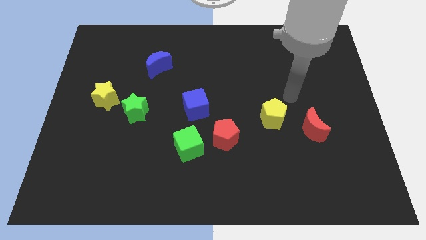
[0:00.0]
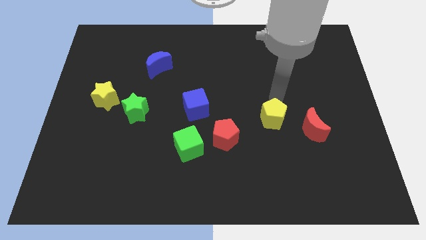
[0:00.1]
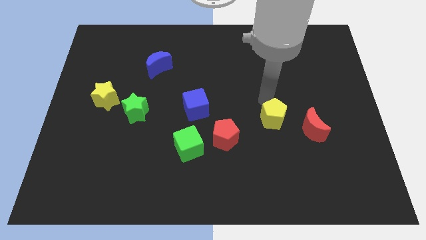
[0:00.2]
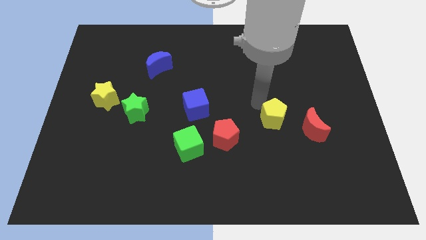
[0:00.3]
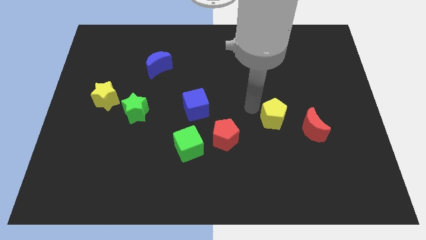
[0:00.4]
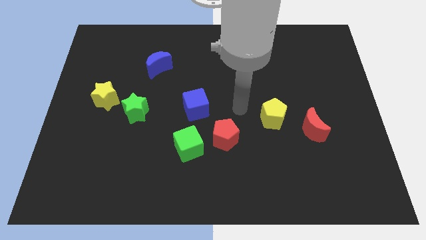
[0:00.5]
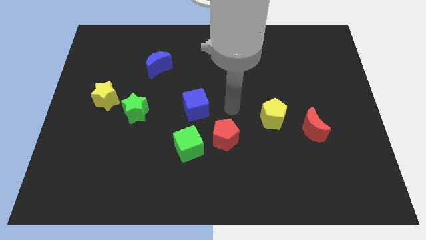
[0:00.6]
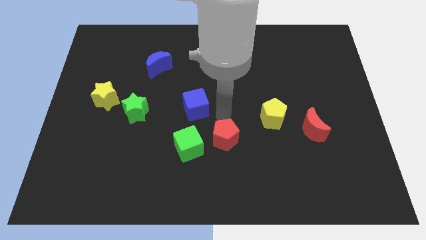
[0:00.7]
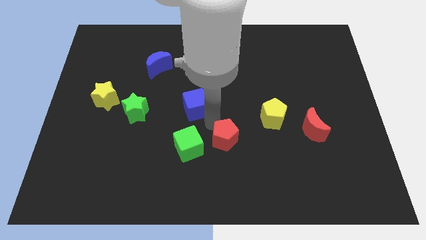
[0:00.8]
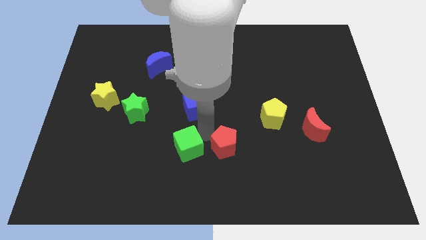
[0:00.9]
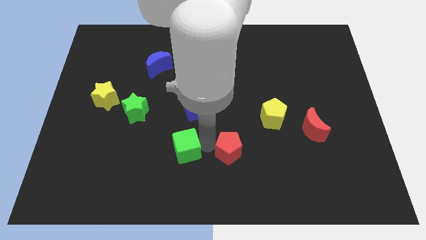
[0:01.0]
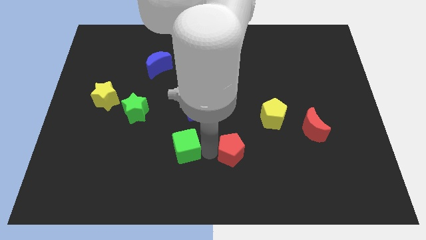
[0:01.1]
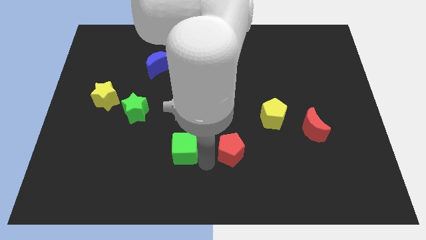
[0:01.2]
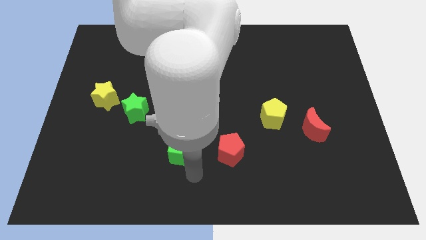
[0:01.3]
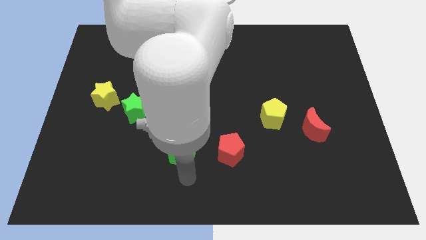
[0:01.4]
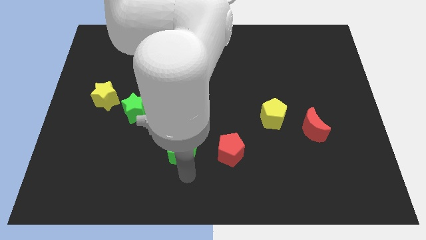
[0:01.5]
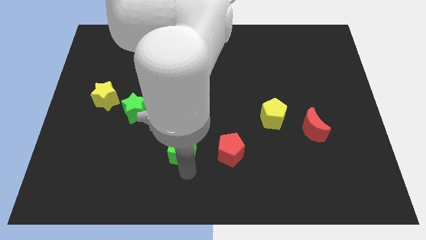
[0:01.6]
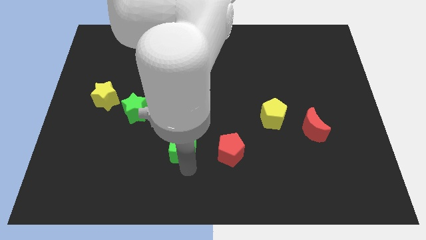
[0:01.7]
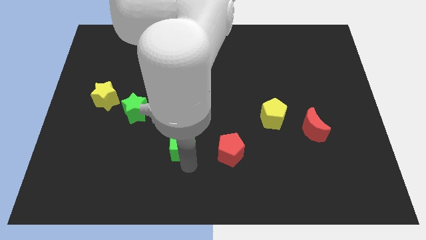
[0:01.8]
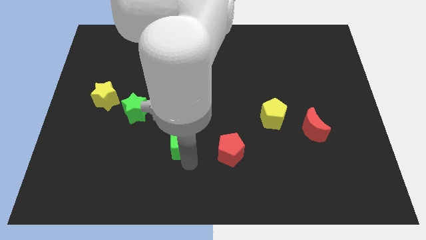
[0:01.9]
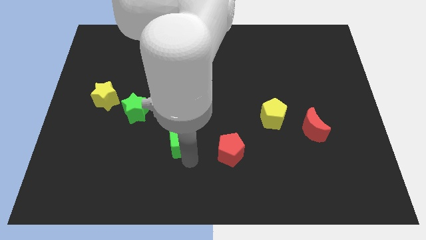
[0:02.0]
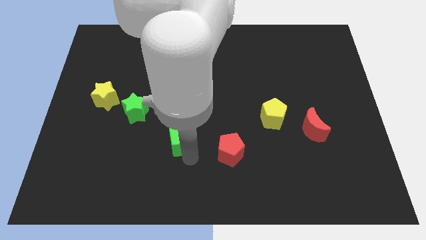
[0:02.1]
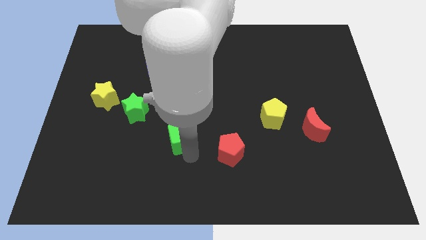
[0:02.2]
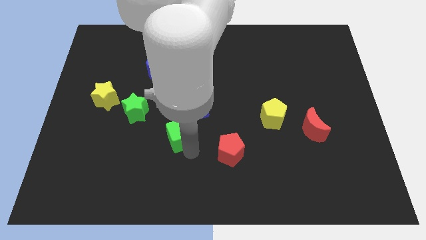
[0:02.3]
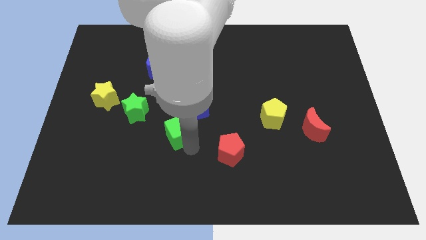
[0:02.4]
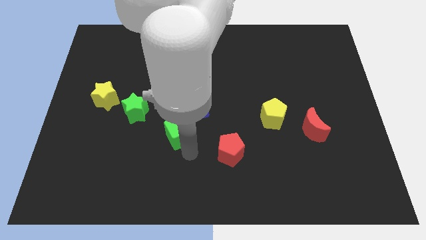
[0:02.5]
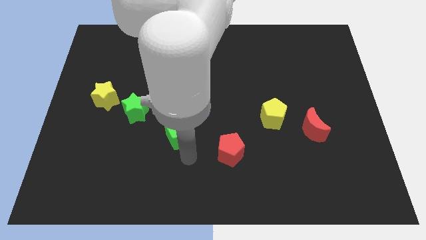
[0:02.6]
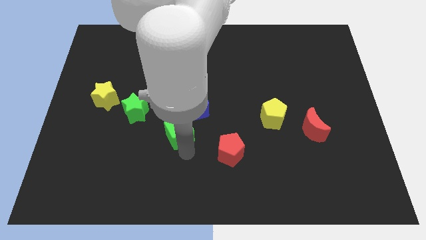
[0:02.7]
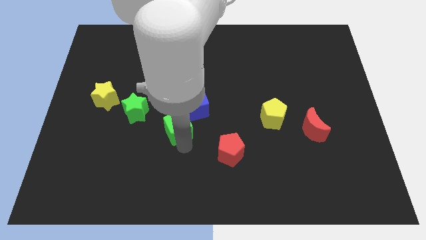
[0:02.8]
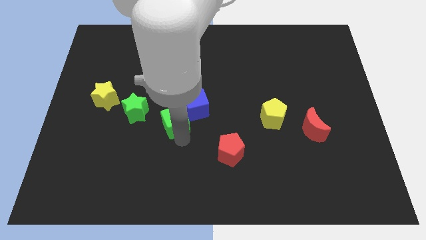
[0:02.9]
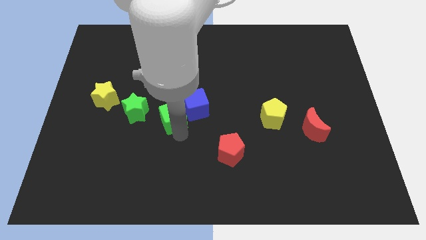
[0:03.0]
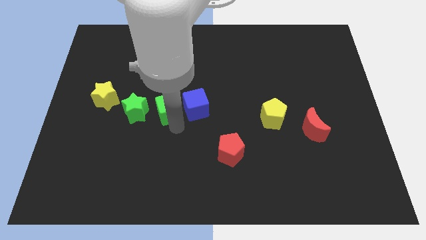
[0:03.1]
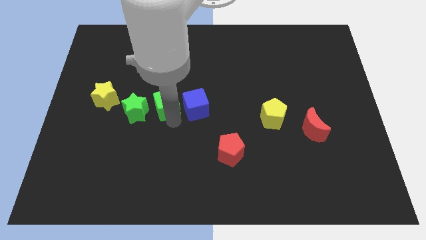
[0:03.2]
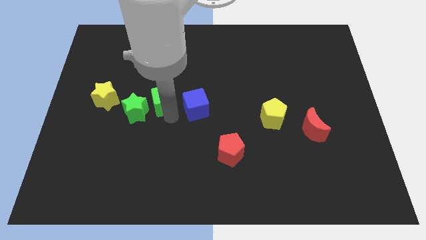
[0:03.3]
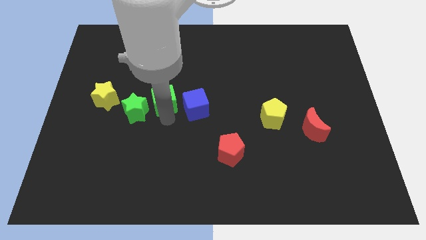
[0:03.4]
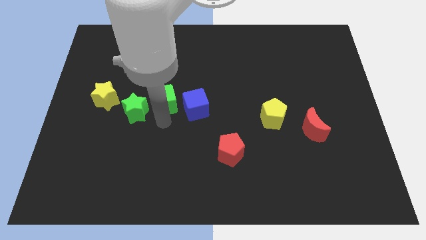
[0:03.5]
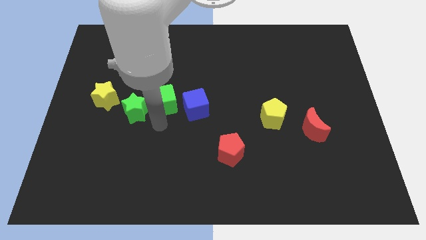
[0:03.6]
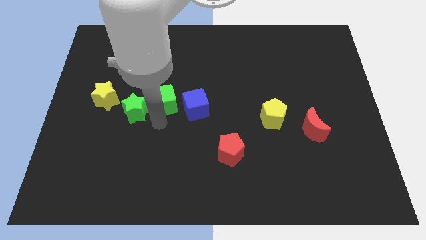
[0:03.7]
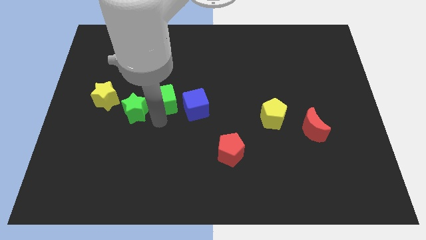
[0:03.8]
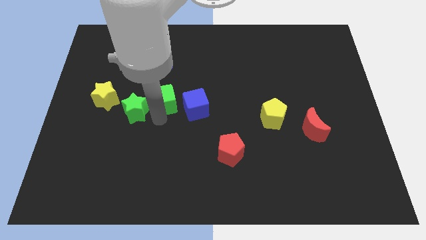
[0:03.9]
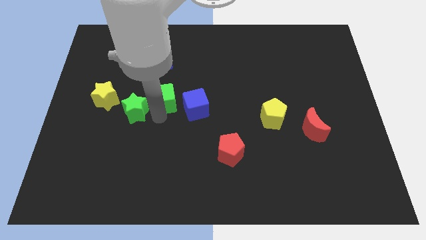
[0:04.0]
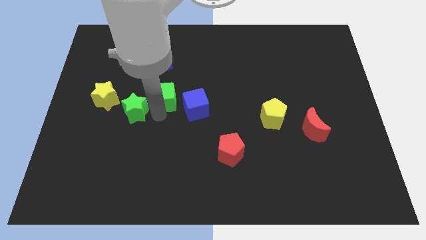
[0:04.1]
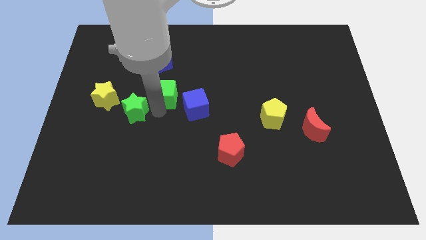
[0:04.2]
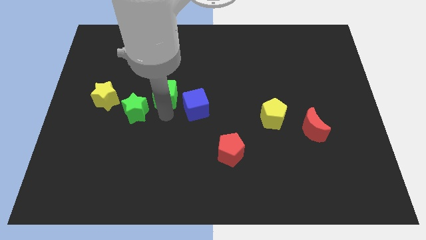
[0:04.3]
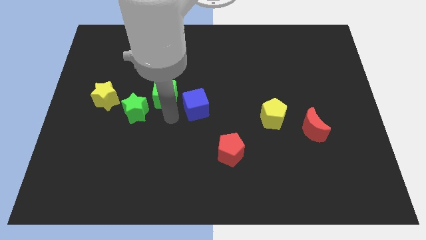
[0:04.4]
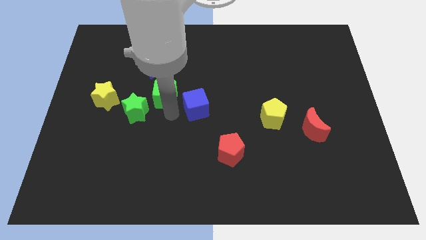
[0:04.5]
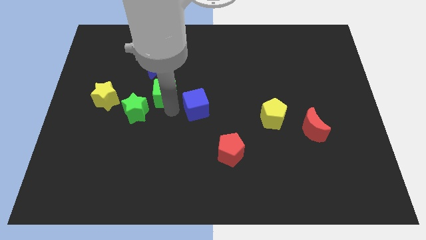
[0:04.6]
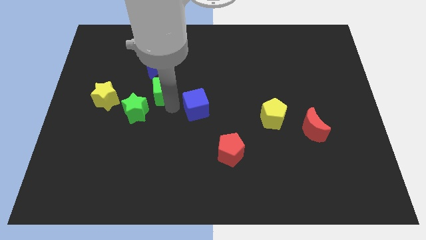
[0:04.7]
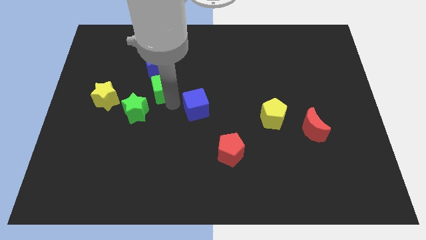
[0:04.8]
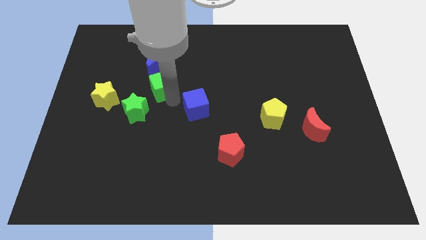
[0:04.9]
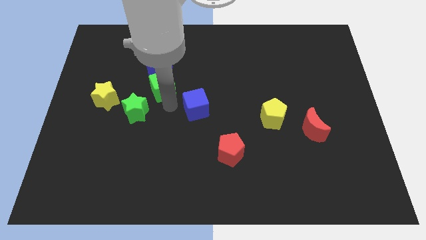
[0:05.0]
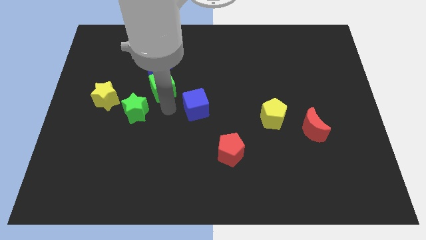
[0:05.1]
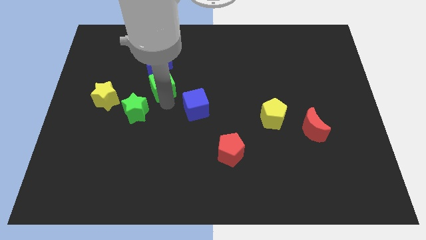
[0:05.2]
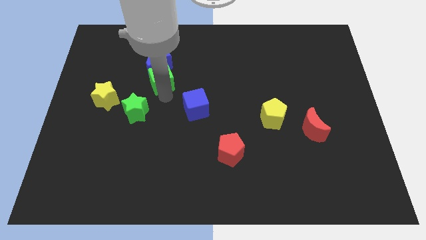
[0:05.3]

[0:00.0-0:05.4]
push the green cube next to the blue moon

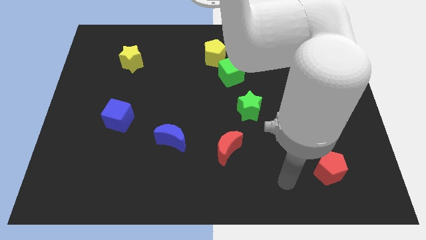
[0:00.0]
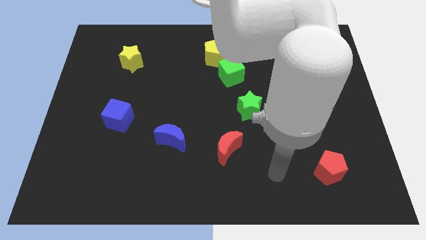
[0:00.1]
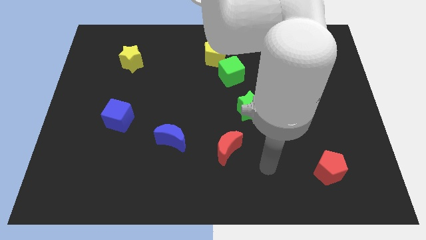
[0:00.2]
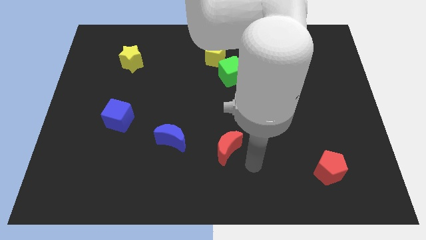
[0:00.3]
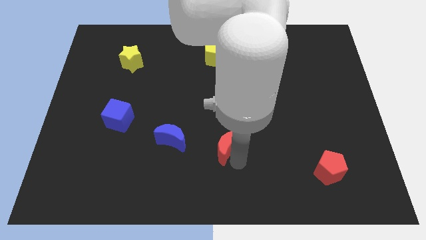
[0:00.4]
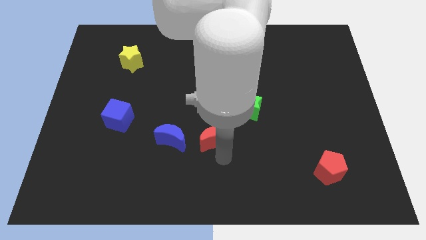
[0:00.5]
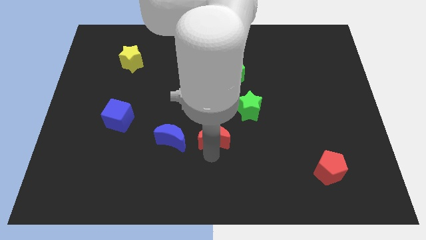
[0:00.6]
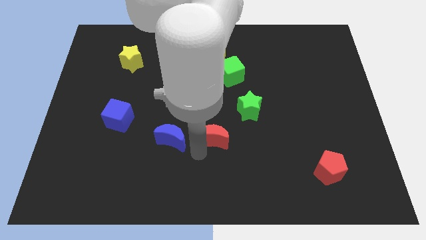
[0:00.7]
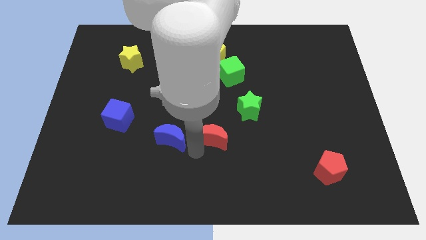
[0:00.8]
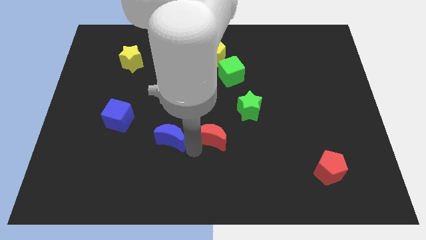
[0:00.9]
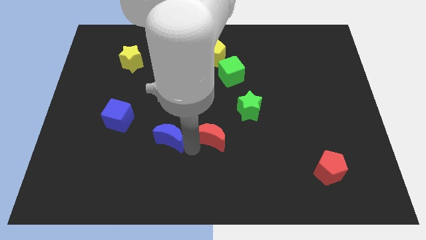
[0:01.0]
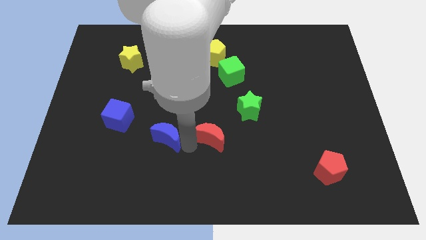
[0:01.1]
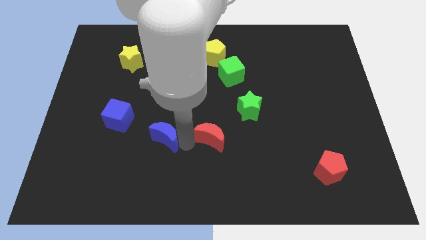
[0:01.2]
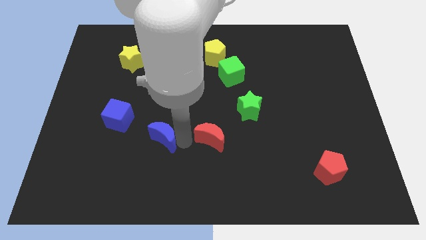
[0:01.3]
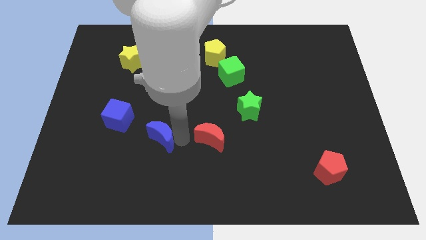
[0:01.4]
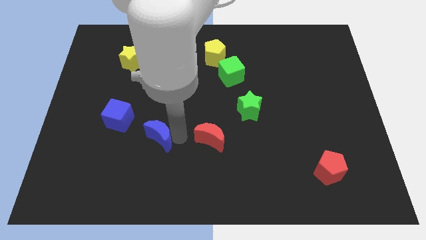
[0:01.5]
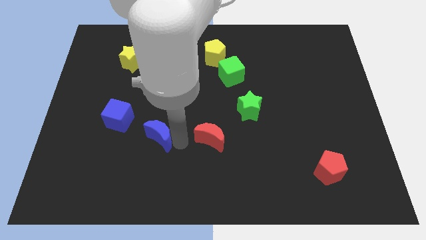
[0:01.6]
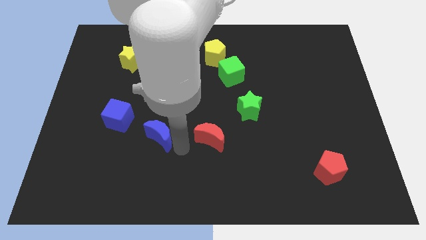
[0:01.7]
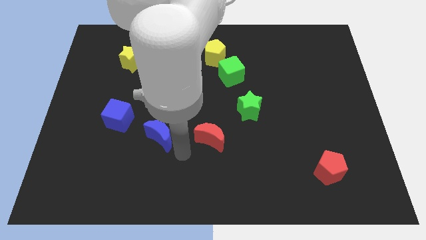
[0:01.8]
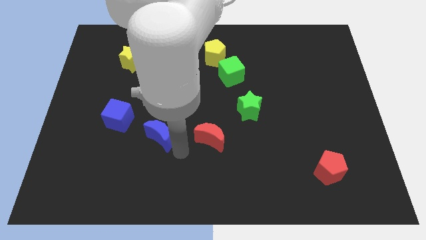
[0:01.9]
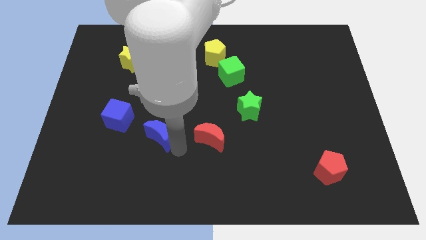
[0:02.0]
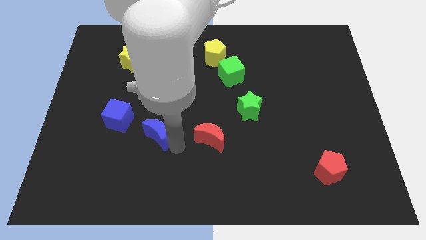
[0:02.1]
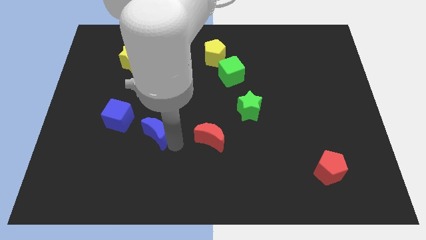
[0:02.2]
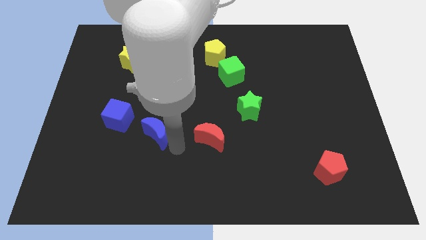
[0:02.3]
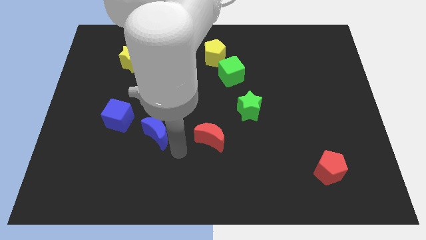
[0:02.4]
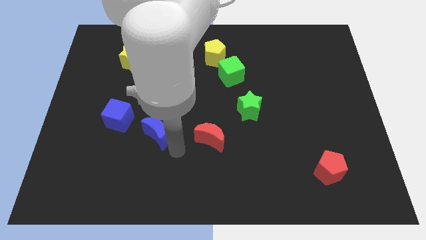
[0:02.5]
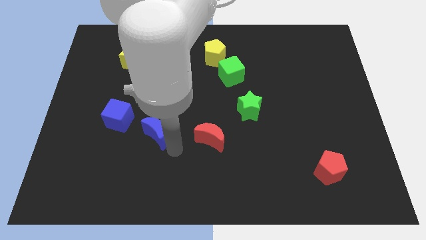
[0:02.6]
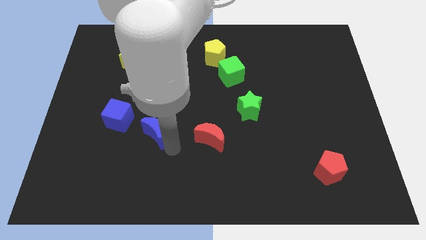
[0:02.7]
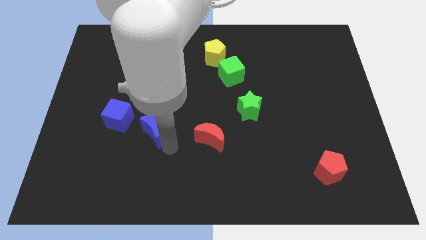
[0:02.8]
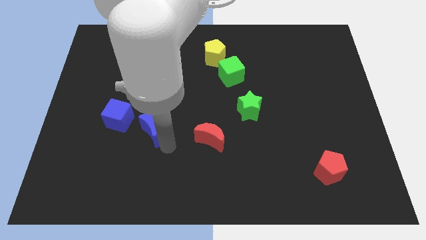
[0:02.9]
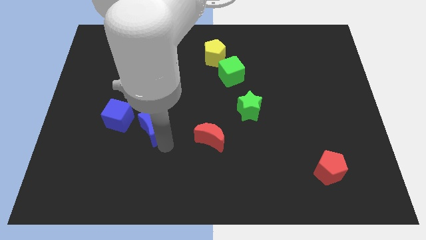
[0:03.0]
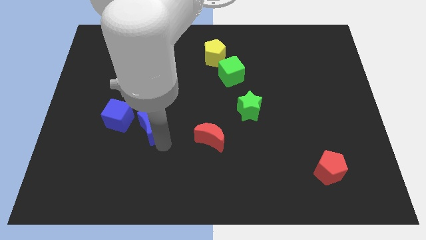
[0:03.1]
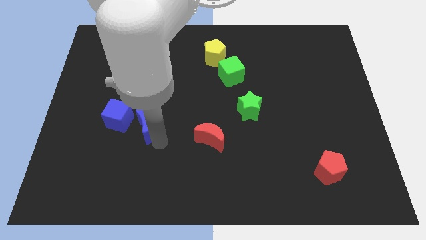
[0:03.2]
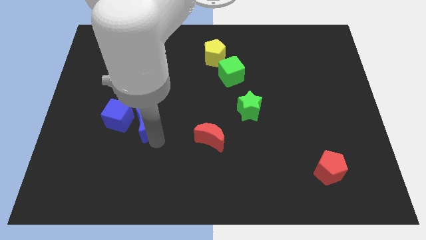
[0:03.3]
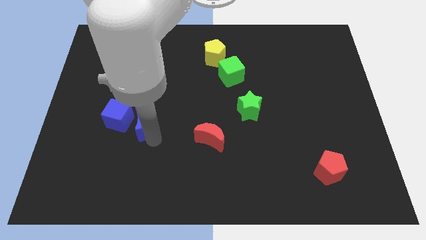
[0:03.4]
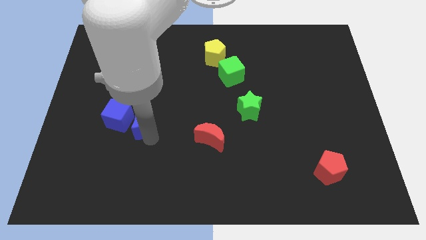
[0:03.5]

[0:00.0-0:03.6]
move the blue moon towards the blue cube
